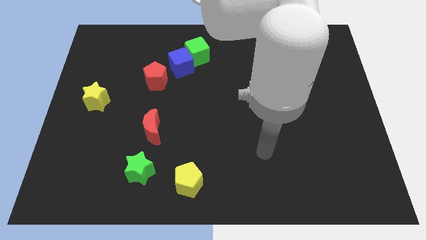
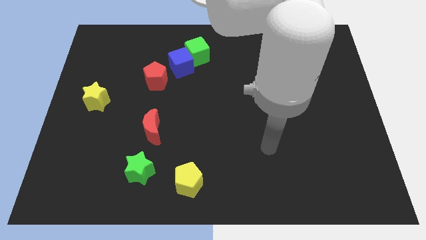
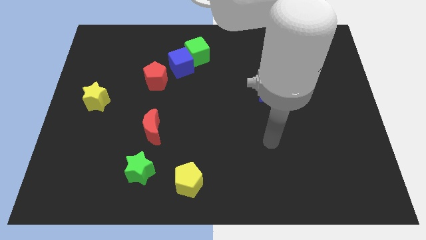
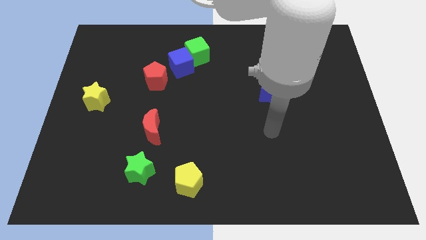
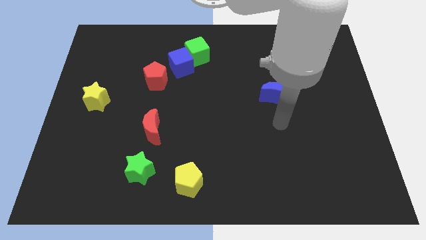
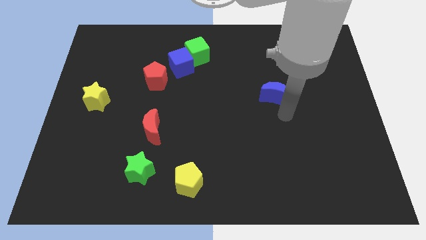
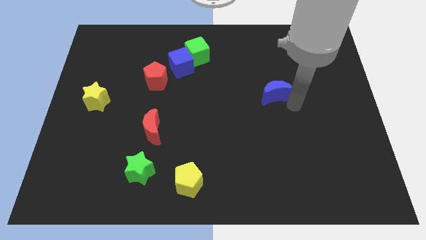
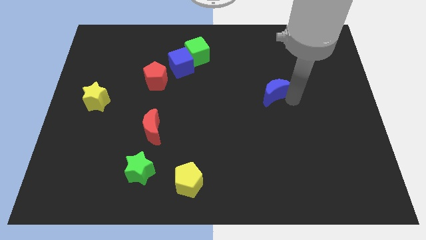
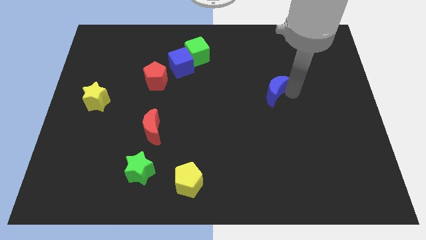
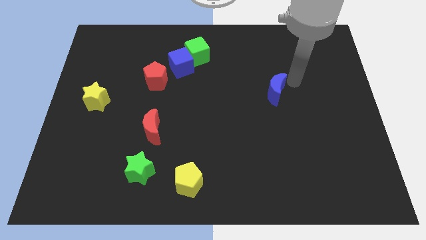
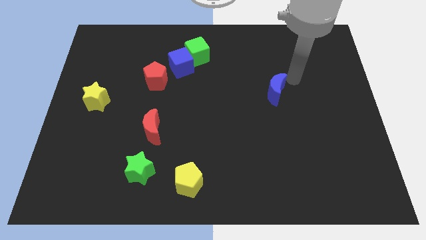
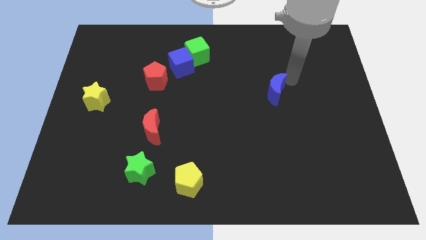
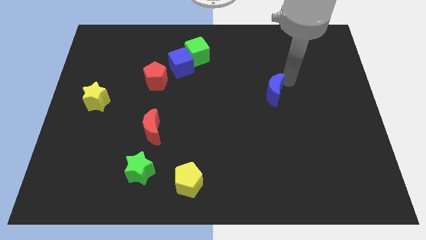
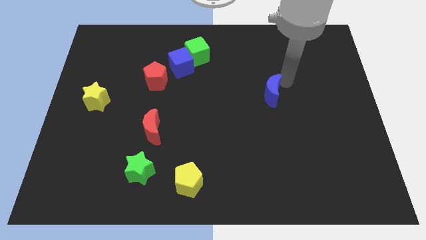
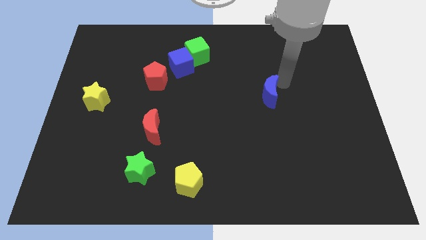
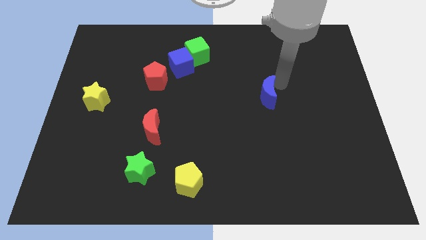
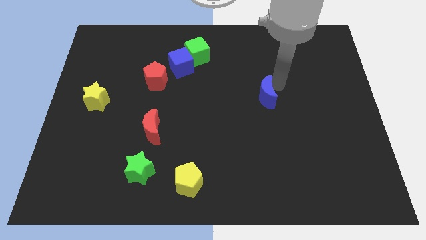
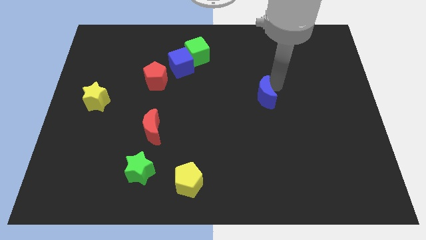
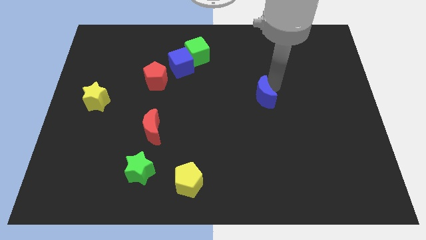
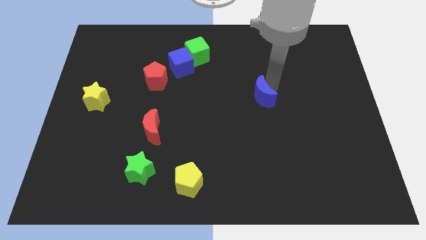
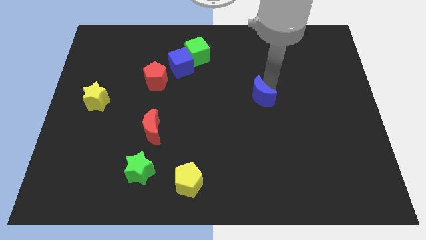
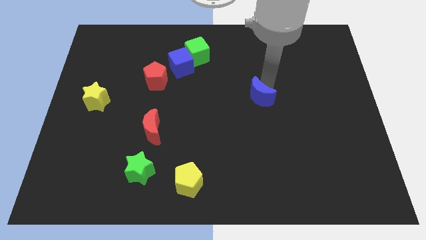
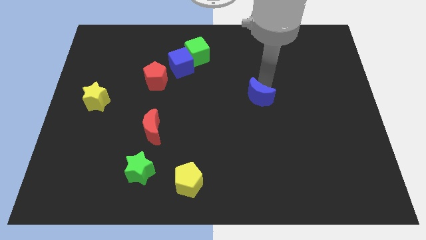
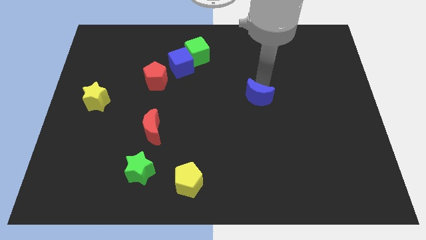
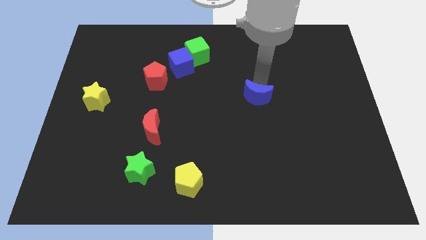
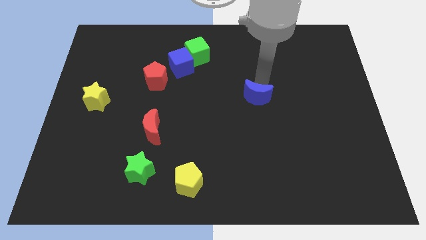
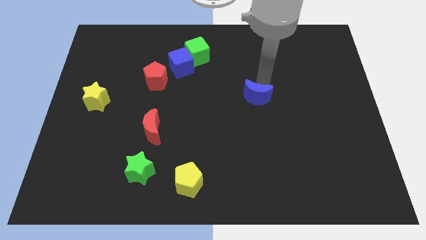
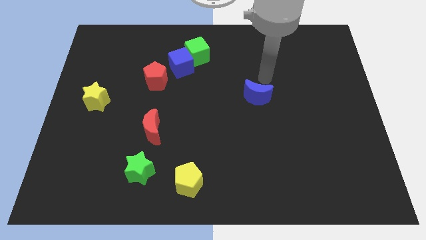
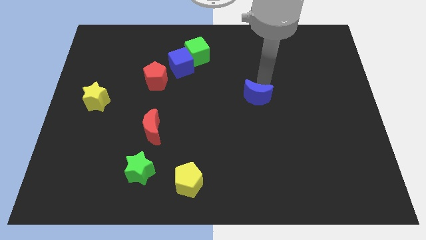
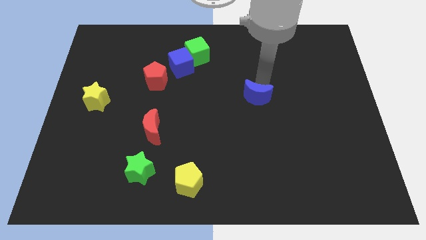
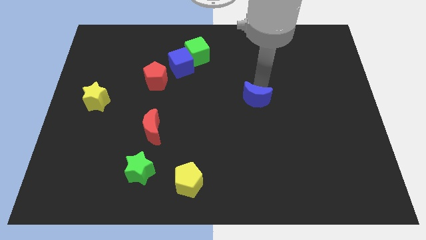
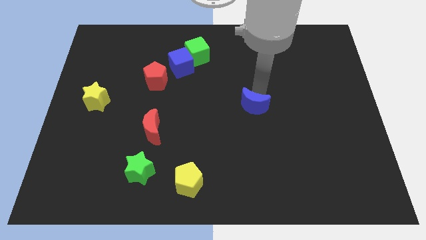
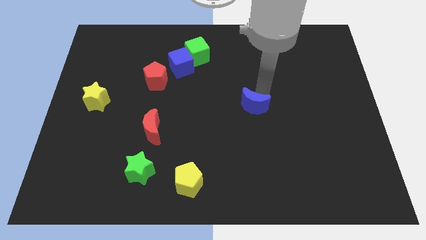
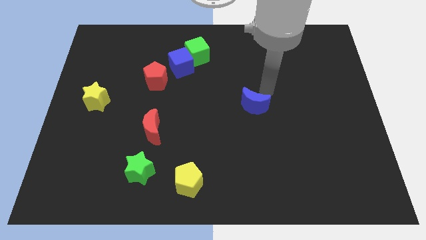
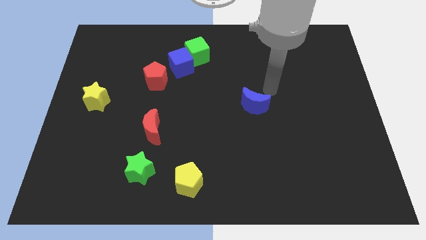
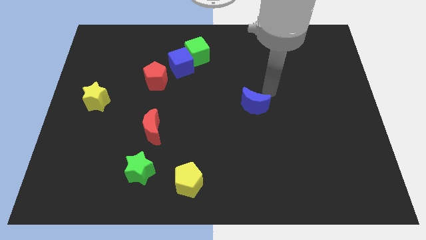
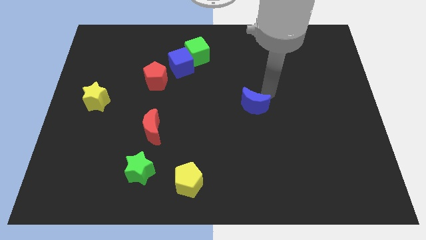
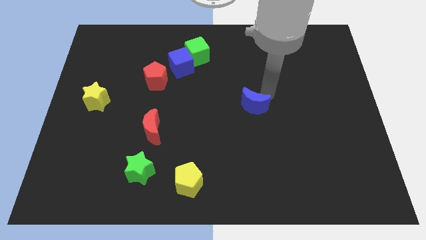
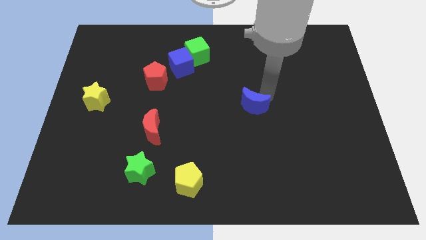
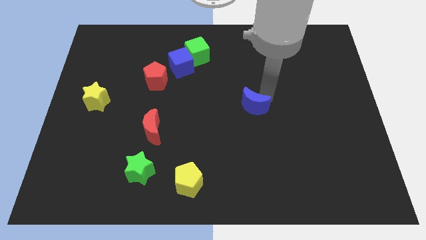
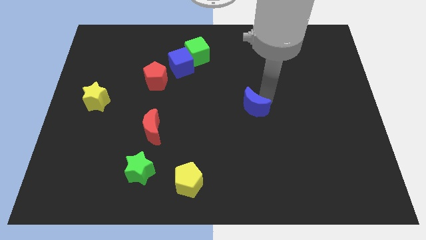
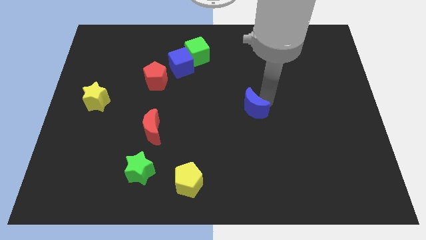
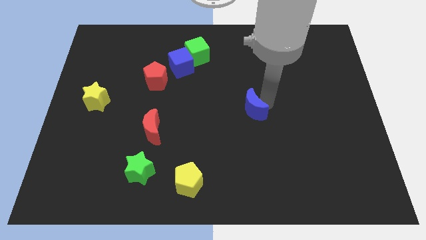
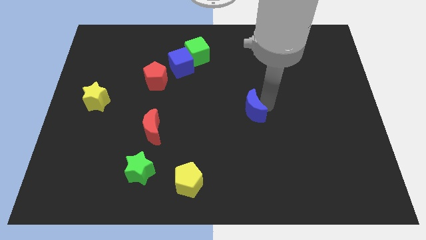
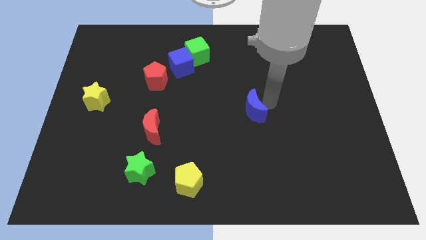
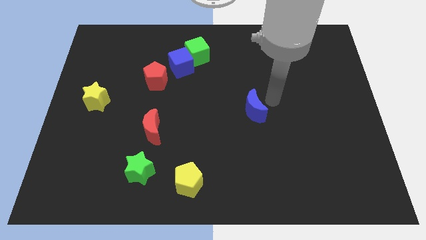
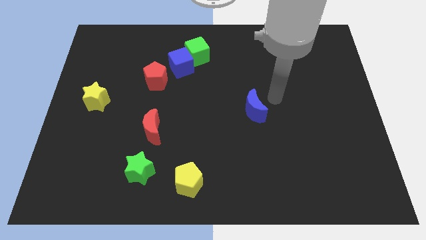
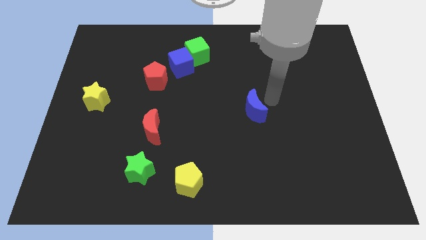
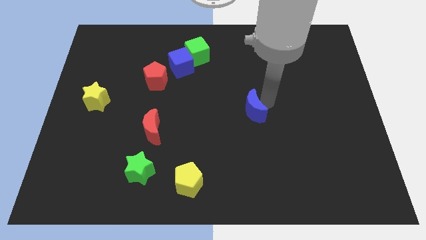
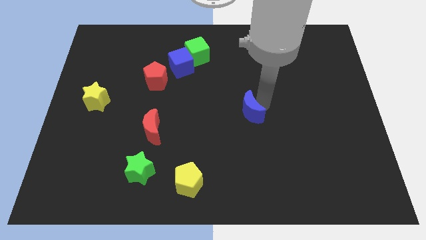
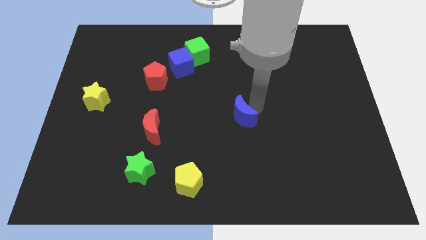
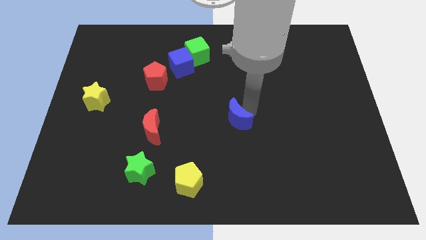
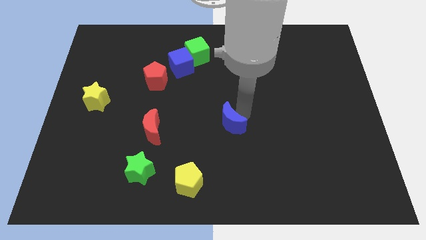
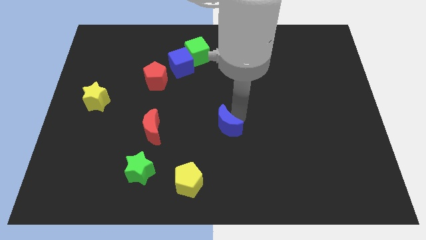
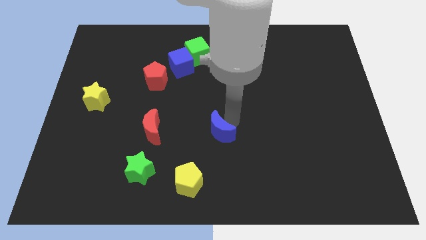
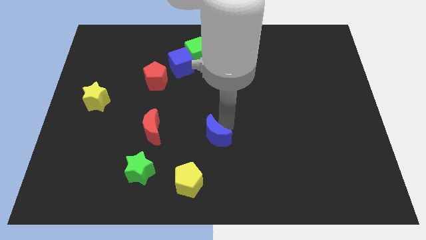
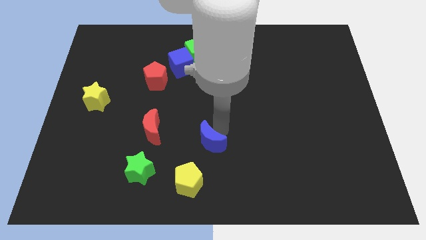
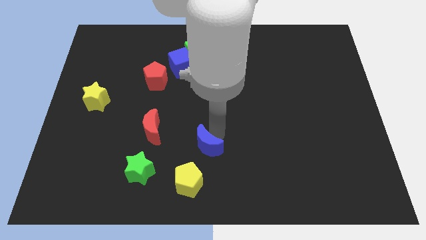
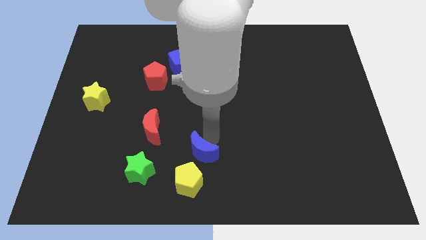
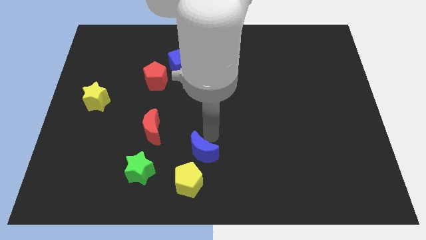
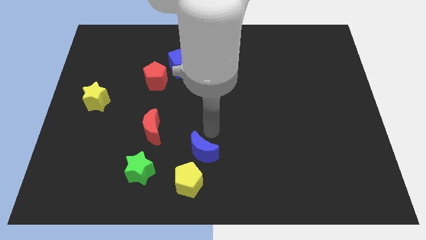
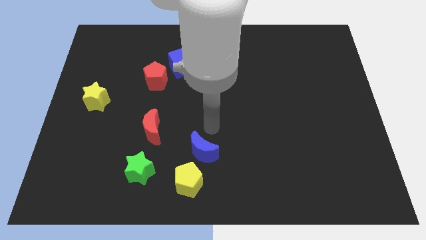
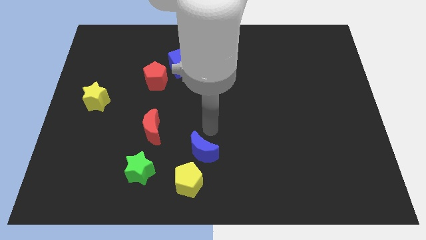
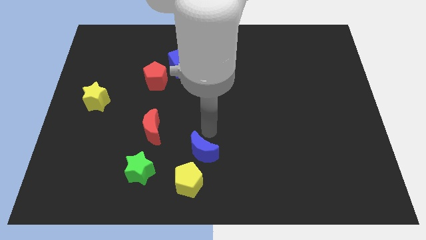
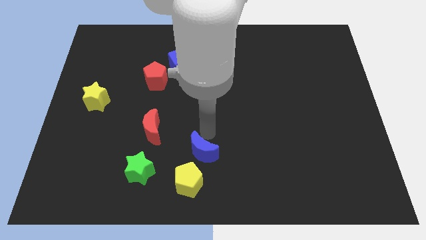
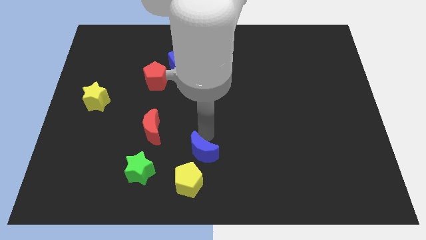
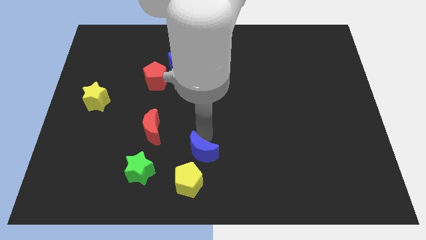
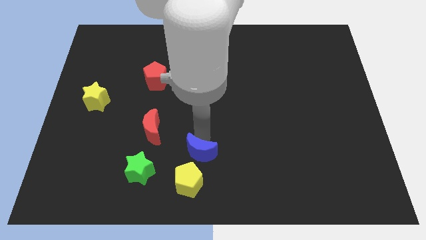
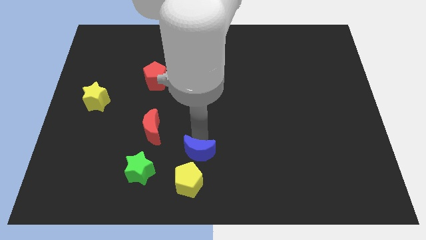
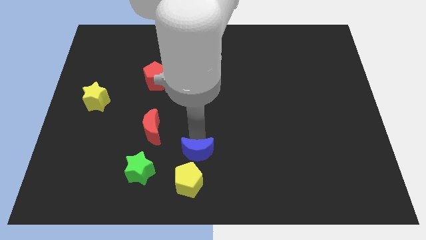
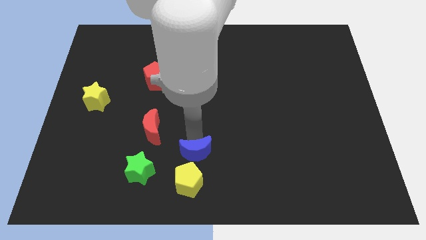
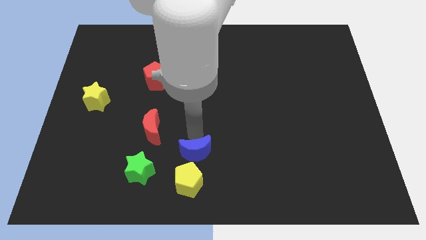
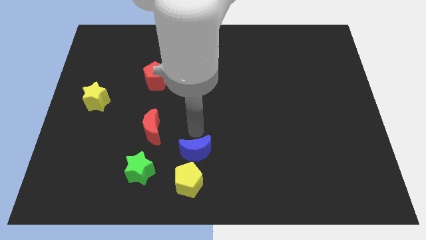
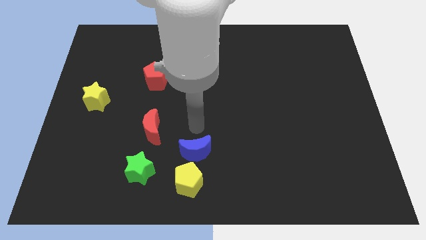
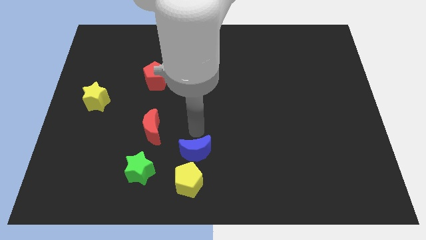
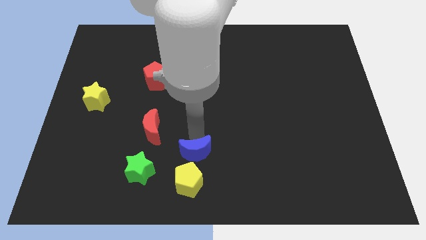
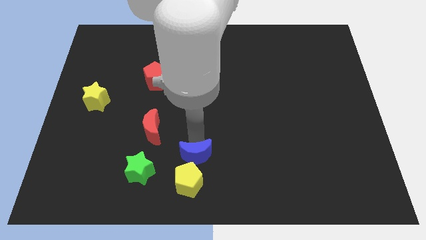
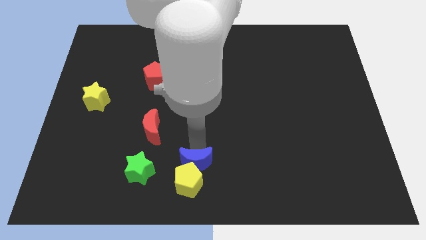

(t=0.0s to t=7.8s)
move the blue moon to the yellow pentagon
